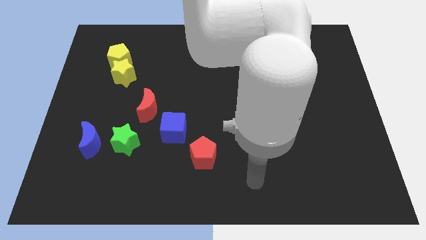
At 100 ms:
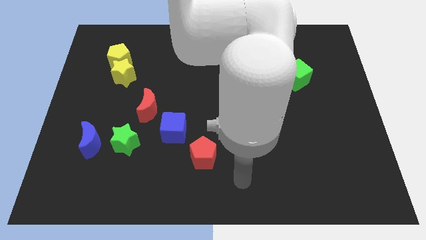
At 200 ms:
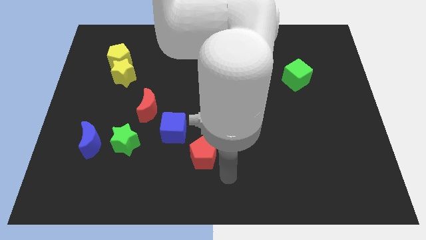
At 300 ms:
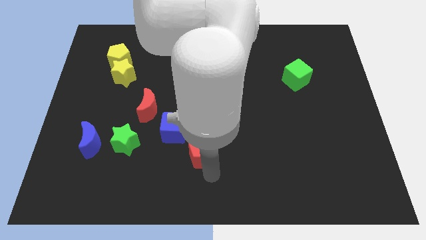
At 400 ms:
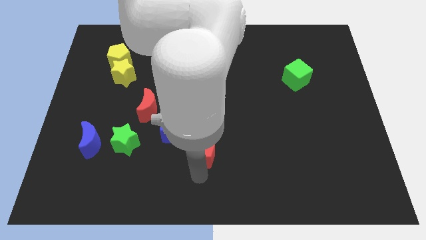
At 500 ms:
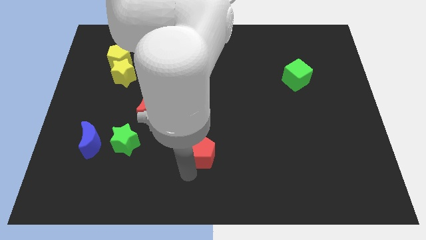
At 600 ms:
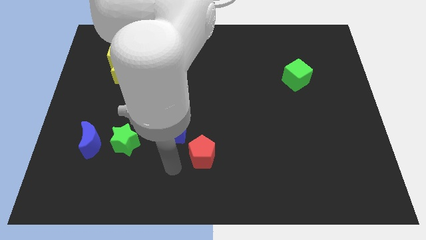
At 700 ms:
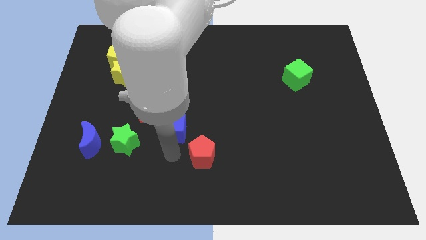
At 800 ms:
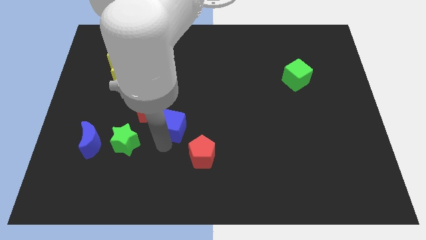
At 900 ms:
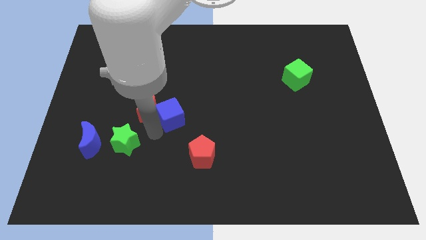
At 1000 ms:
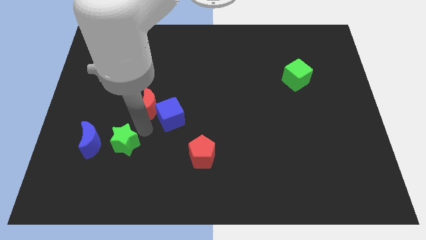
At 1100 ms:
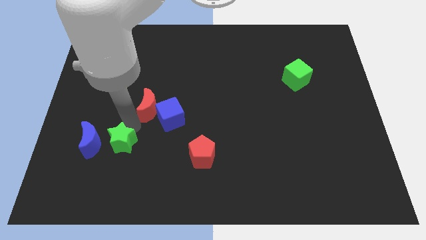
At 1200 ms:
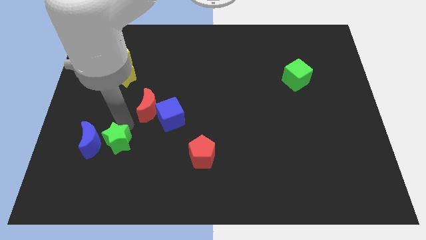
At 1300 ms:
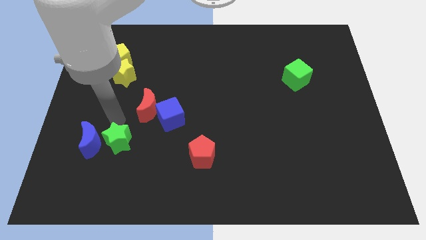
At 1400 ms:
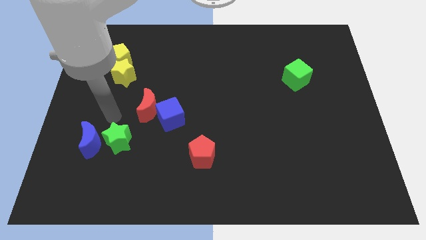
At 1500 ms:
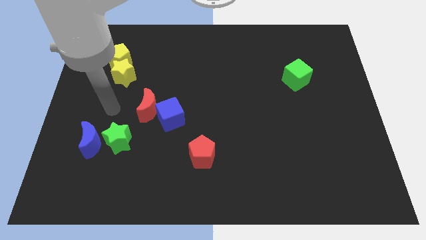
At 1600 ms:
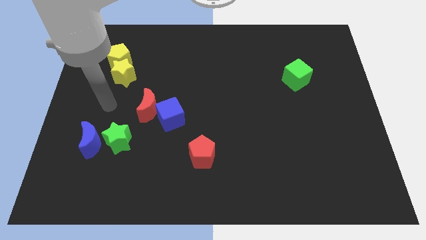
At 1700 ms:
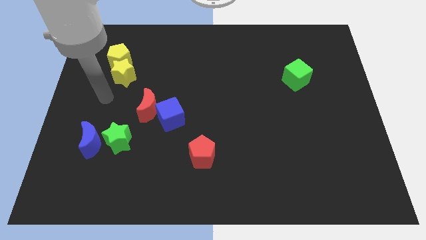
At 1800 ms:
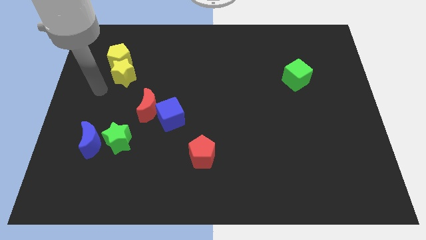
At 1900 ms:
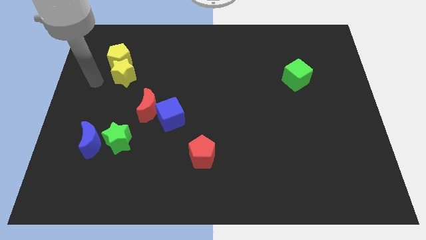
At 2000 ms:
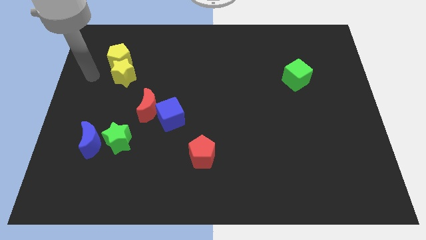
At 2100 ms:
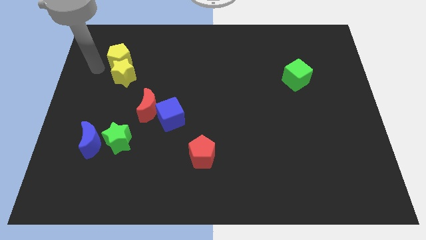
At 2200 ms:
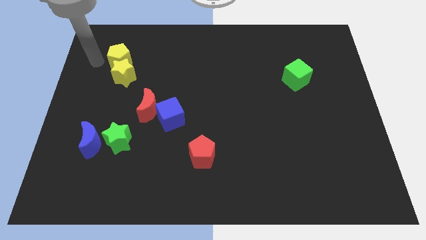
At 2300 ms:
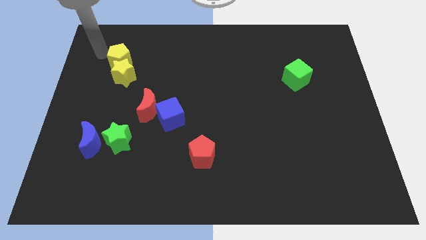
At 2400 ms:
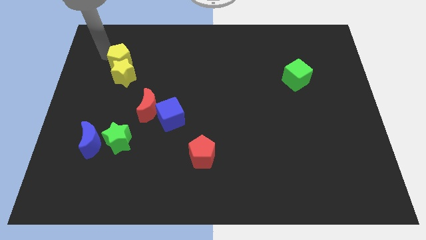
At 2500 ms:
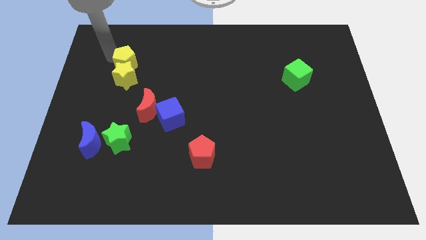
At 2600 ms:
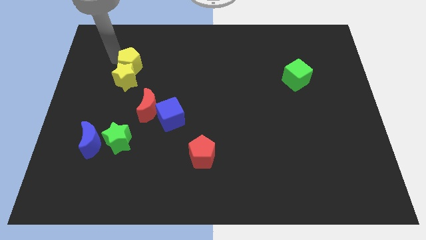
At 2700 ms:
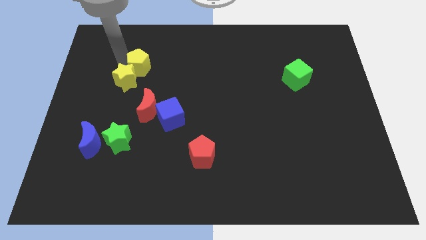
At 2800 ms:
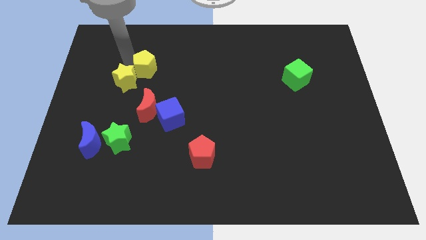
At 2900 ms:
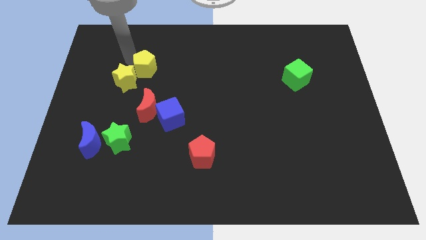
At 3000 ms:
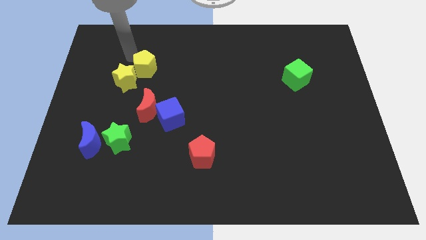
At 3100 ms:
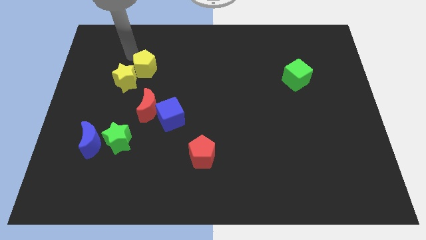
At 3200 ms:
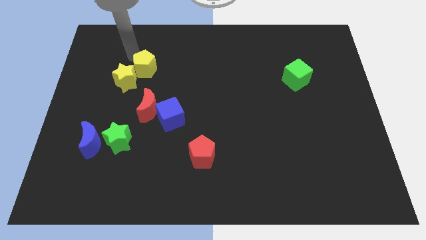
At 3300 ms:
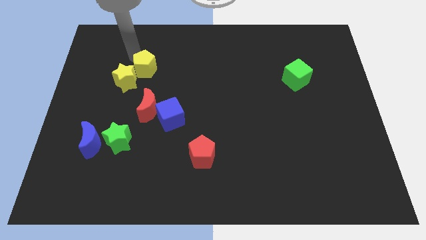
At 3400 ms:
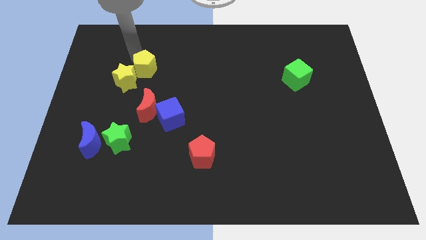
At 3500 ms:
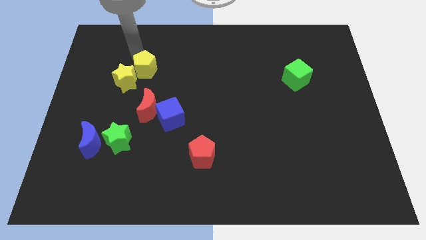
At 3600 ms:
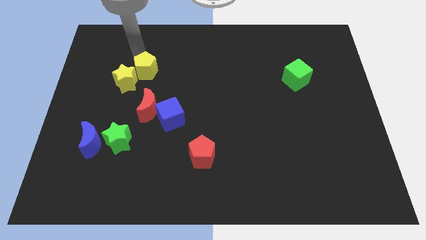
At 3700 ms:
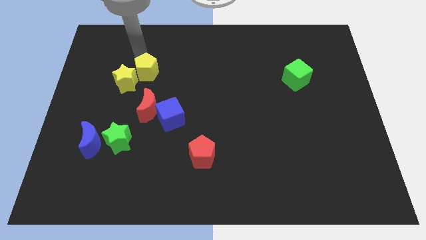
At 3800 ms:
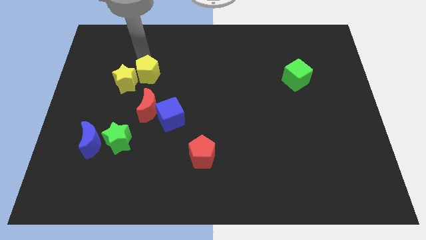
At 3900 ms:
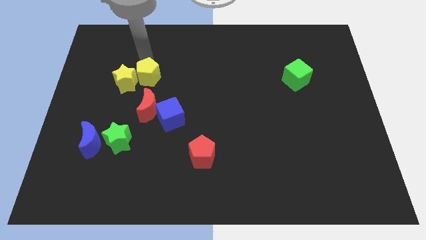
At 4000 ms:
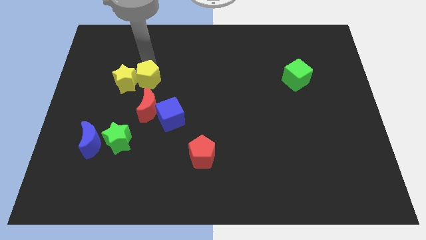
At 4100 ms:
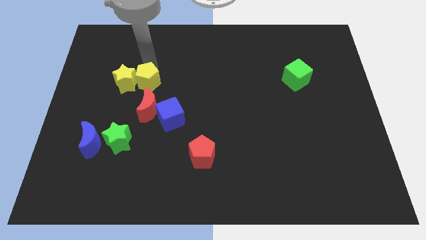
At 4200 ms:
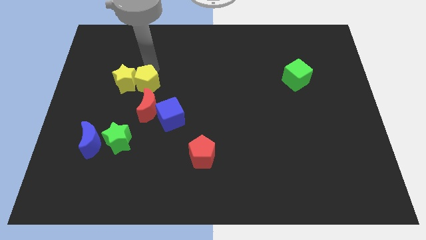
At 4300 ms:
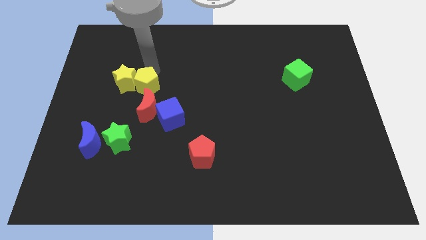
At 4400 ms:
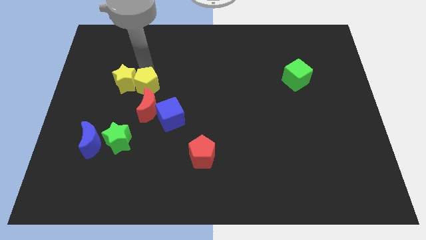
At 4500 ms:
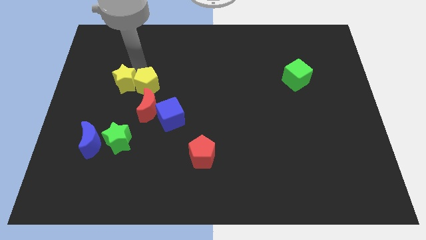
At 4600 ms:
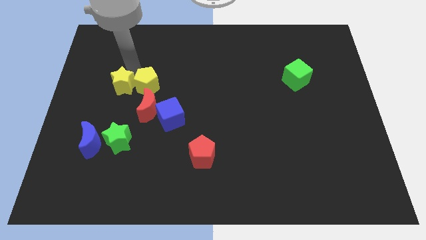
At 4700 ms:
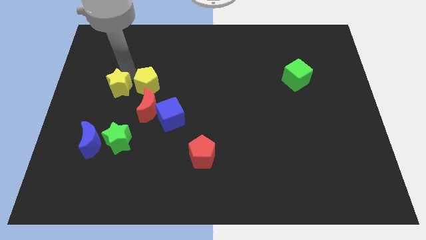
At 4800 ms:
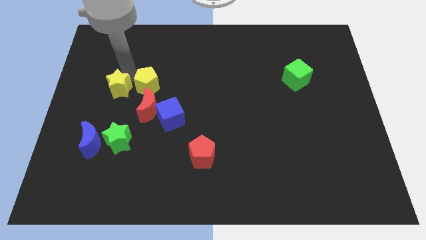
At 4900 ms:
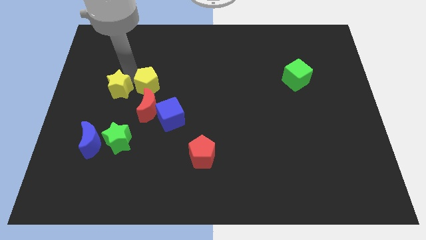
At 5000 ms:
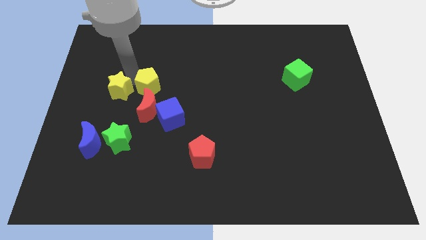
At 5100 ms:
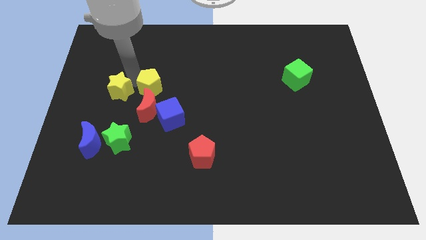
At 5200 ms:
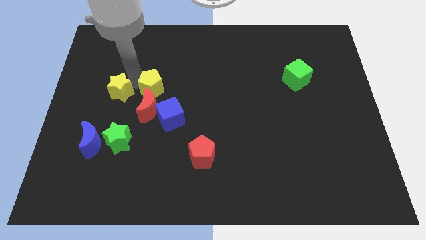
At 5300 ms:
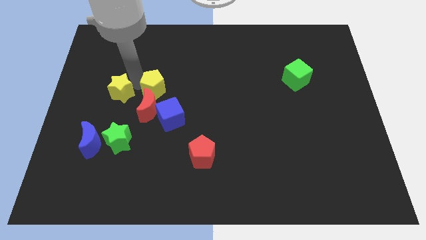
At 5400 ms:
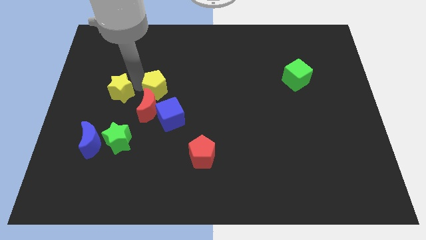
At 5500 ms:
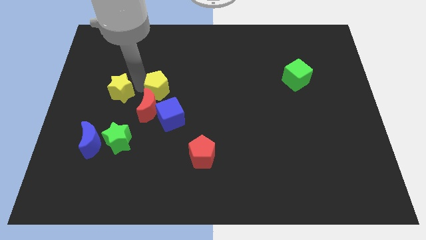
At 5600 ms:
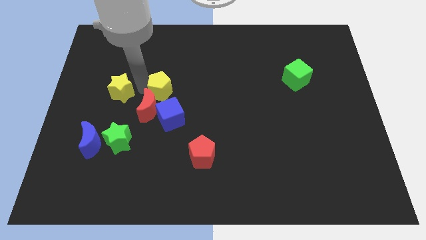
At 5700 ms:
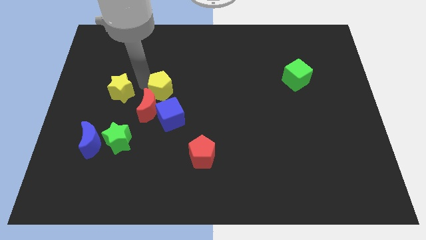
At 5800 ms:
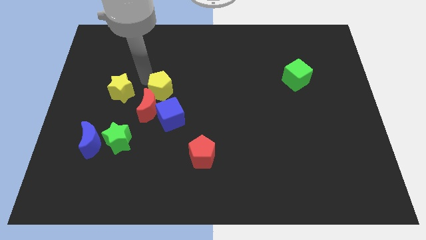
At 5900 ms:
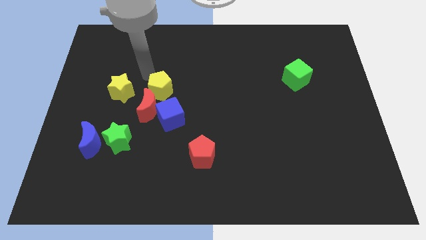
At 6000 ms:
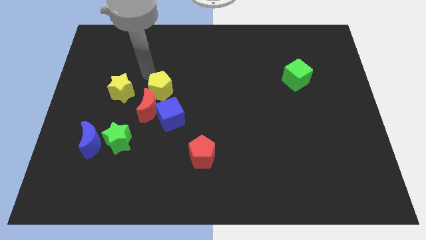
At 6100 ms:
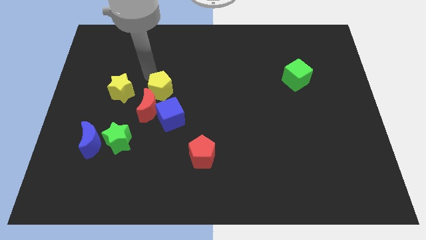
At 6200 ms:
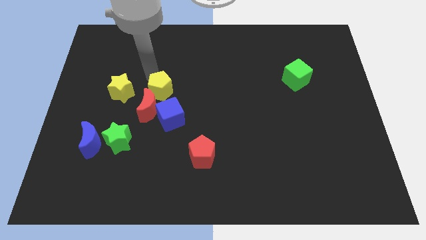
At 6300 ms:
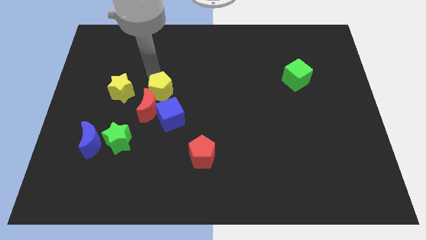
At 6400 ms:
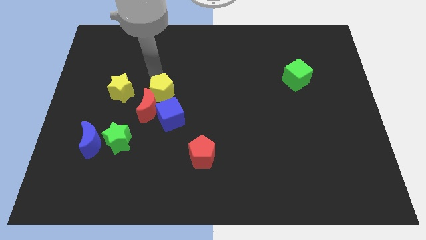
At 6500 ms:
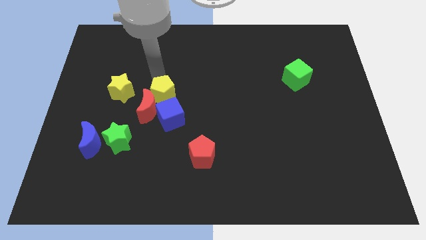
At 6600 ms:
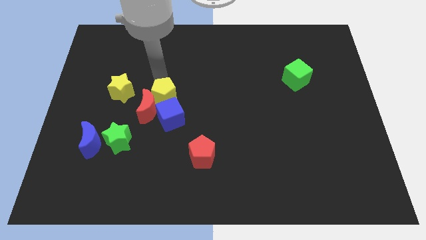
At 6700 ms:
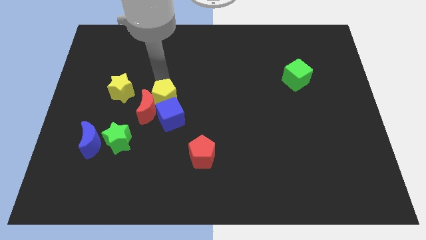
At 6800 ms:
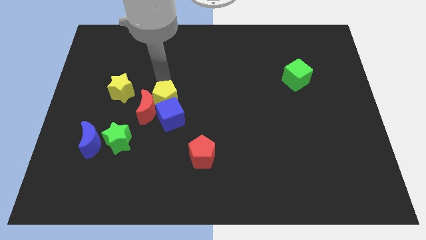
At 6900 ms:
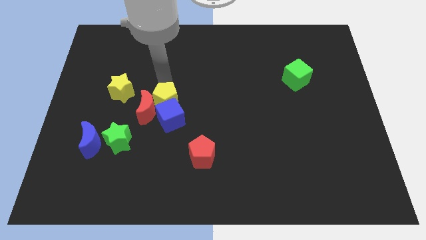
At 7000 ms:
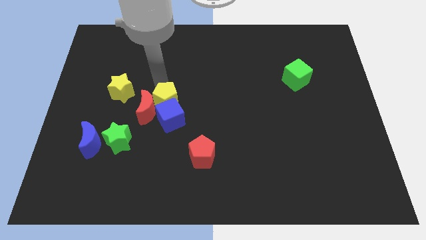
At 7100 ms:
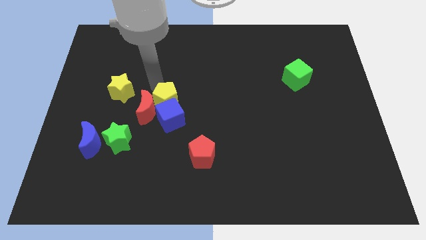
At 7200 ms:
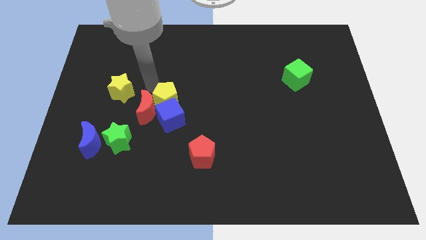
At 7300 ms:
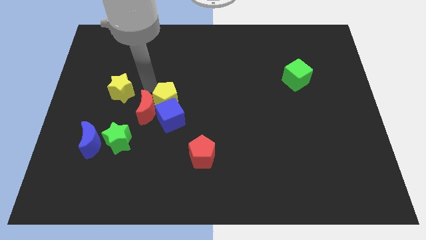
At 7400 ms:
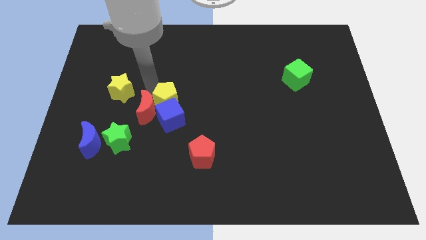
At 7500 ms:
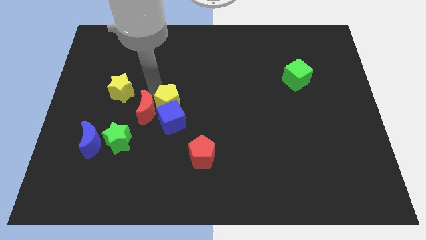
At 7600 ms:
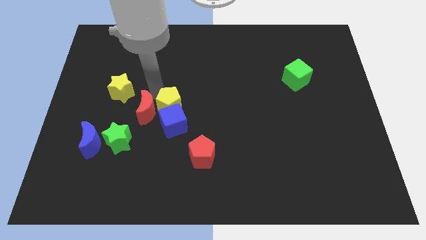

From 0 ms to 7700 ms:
push the yellow pentagon diagonally downwards and right

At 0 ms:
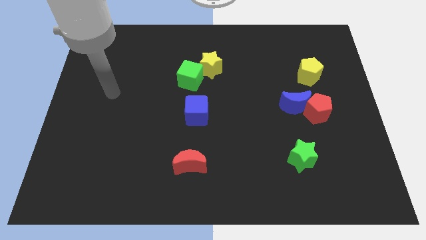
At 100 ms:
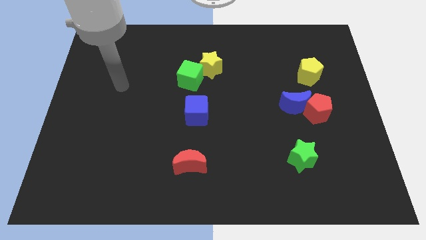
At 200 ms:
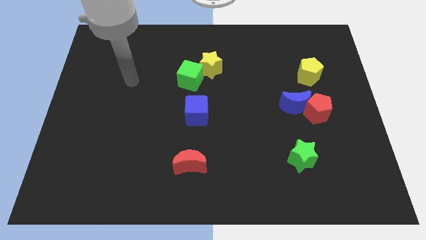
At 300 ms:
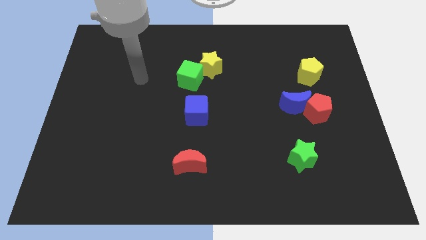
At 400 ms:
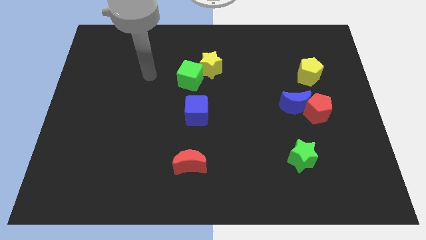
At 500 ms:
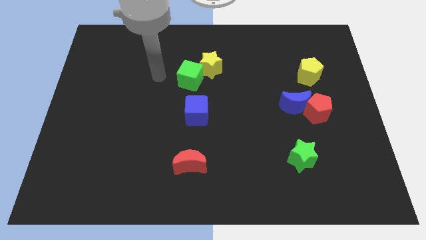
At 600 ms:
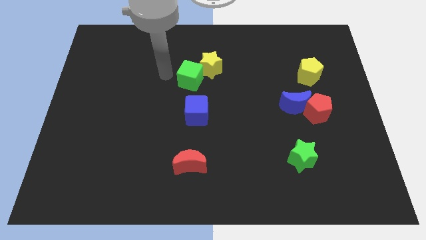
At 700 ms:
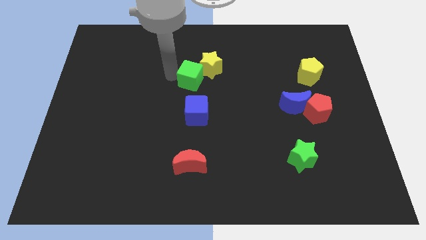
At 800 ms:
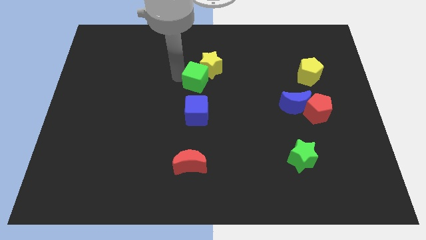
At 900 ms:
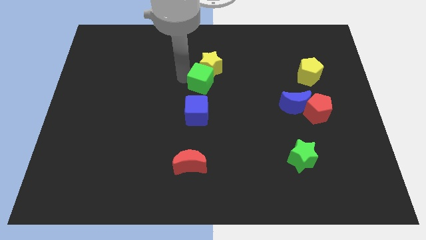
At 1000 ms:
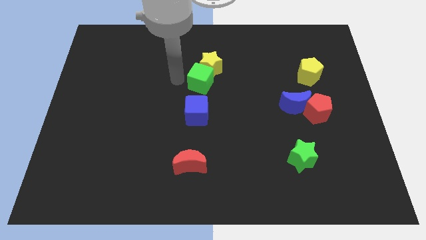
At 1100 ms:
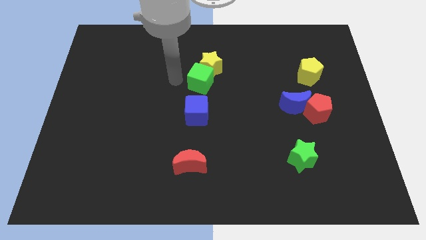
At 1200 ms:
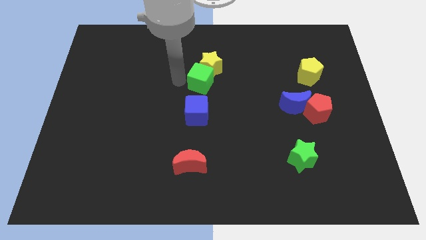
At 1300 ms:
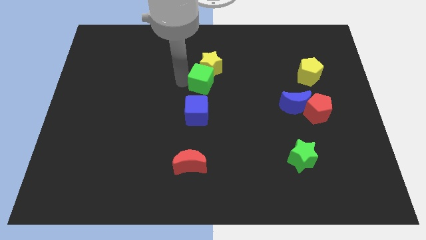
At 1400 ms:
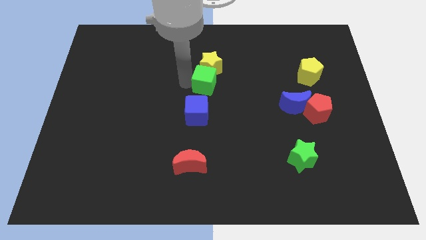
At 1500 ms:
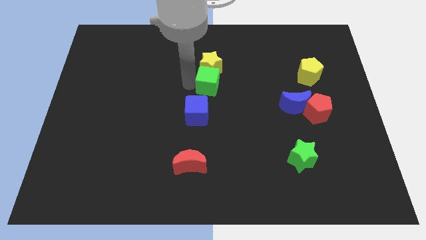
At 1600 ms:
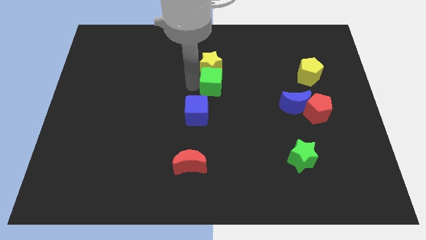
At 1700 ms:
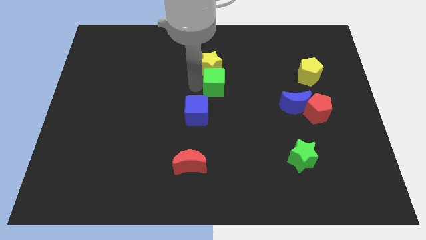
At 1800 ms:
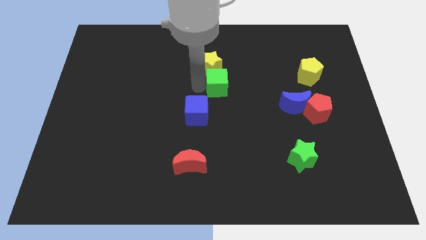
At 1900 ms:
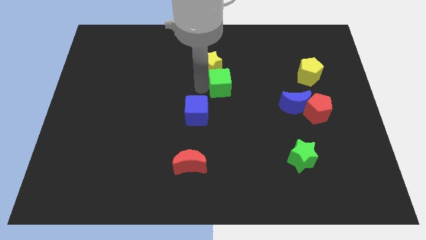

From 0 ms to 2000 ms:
move the green cube a little to the right
